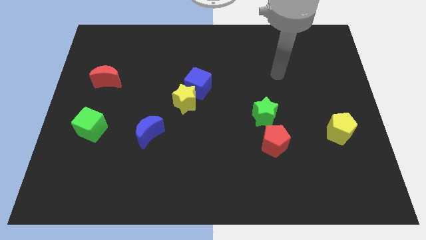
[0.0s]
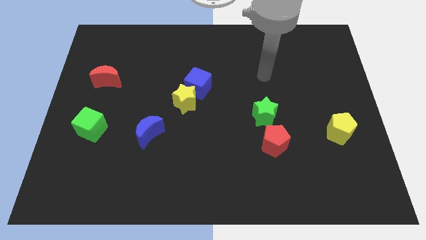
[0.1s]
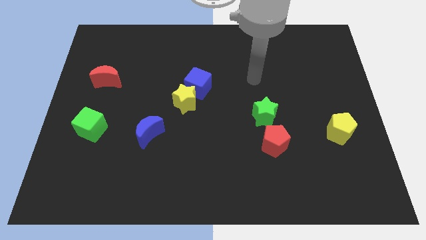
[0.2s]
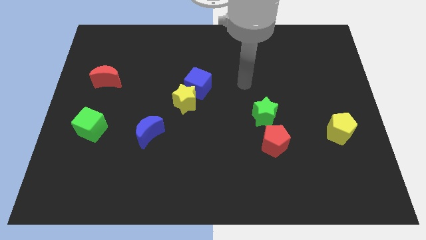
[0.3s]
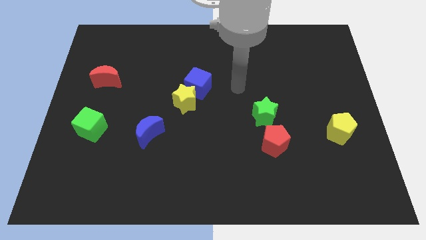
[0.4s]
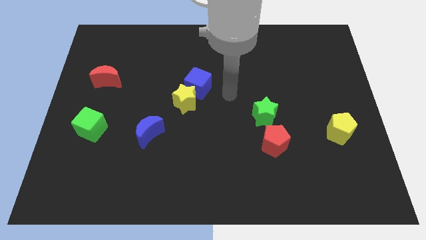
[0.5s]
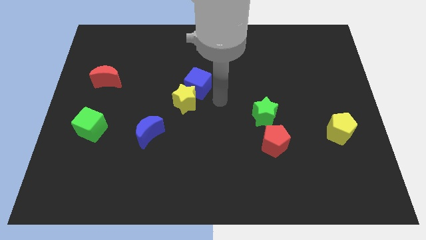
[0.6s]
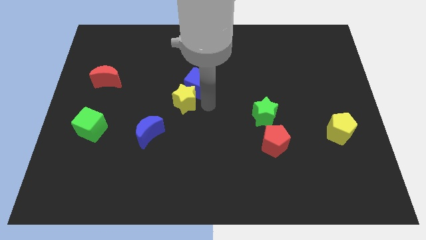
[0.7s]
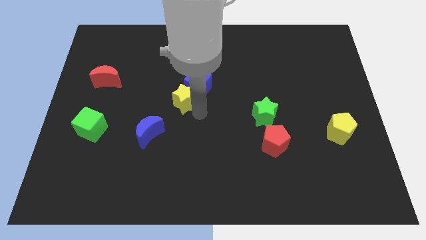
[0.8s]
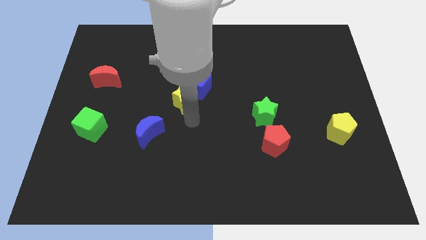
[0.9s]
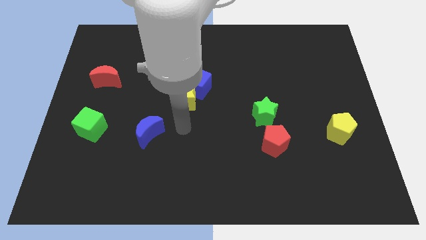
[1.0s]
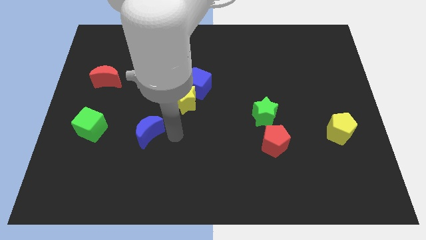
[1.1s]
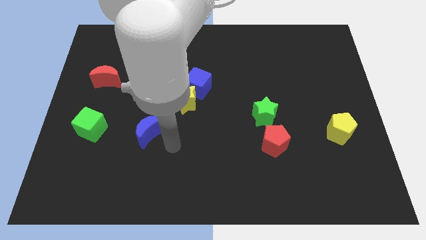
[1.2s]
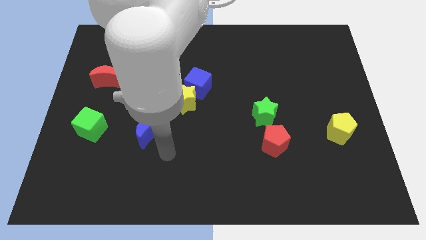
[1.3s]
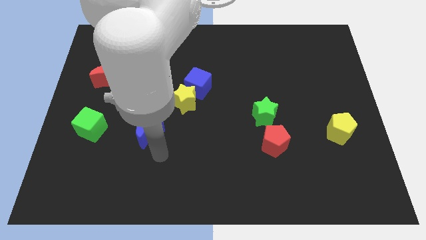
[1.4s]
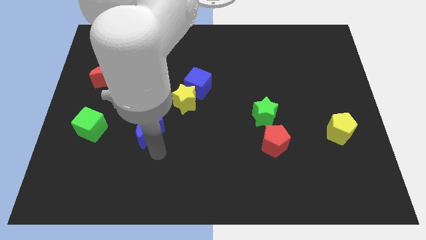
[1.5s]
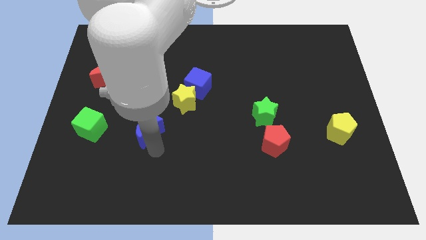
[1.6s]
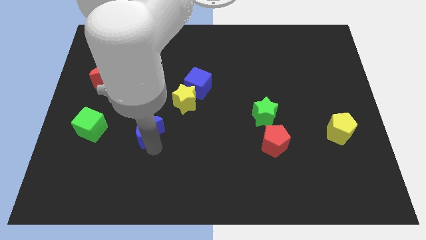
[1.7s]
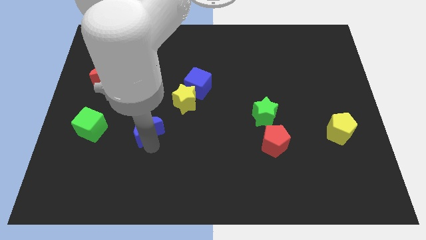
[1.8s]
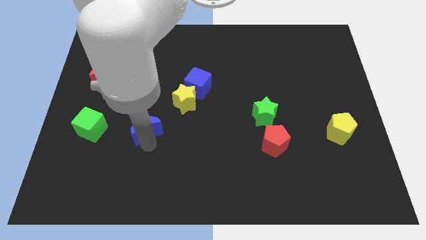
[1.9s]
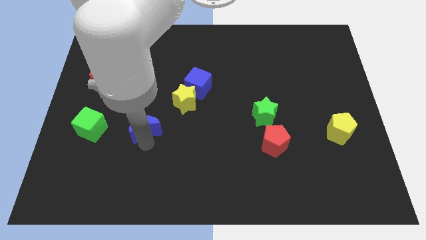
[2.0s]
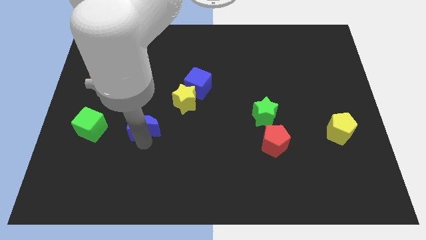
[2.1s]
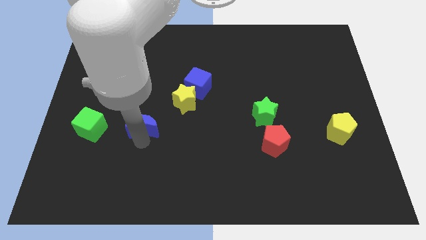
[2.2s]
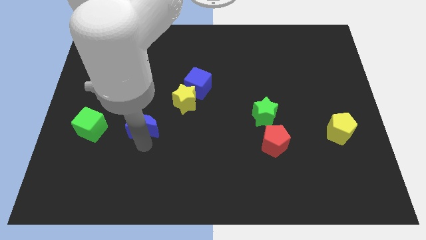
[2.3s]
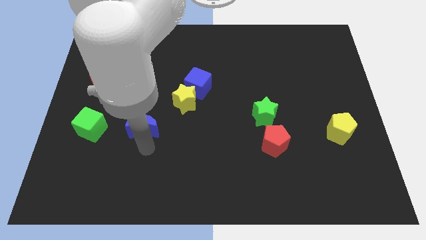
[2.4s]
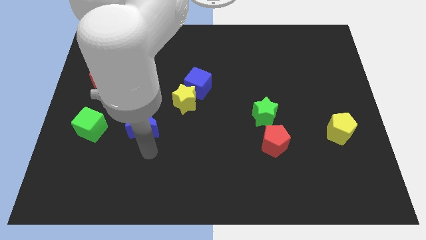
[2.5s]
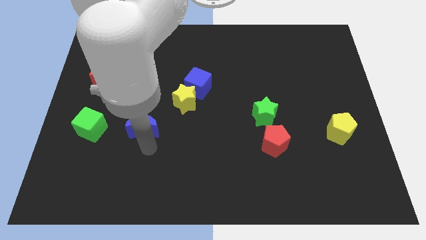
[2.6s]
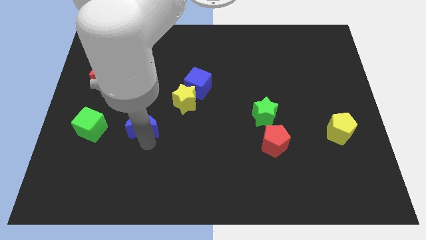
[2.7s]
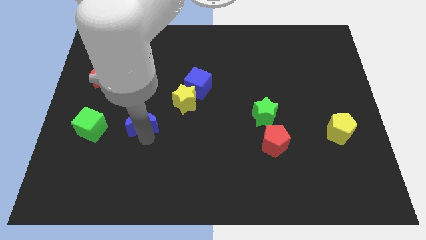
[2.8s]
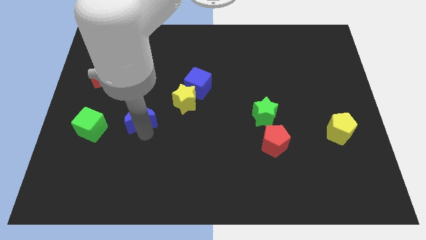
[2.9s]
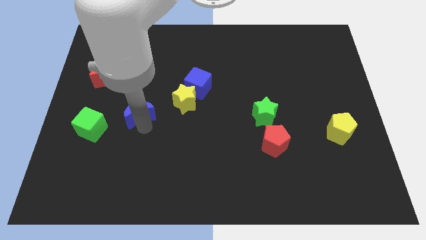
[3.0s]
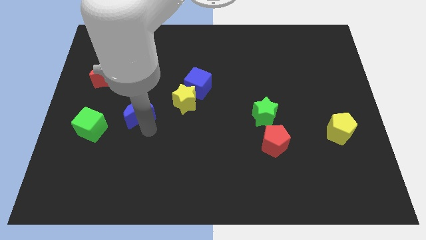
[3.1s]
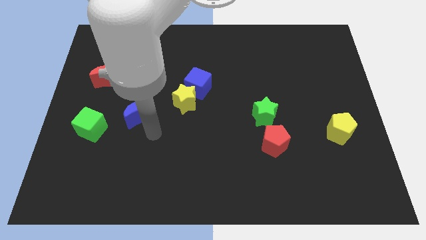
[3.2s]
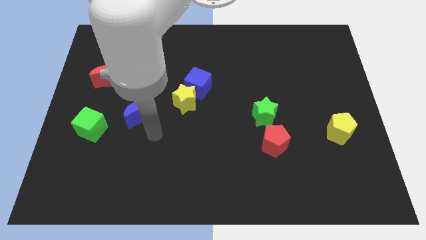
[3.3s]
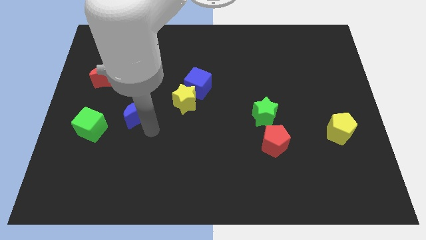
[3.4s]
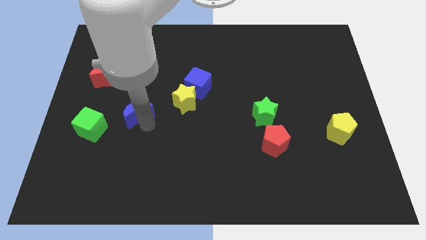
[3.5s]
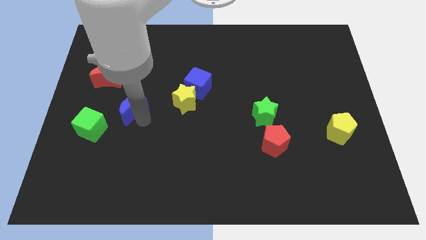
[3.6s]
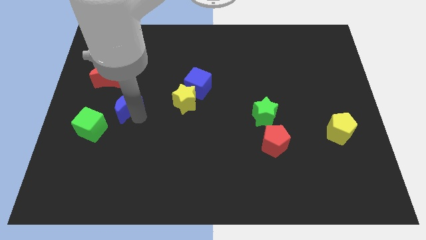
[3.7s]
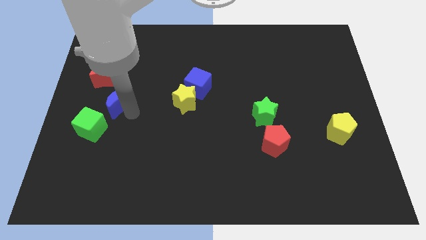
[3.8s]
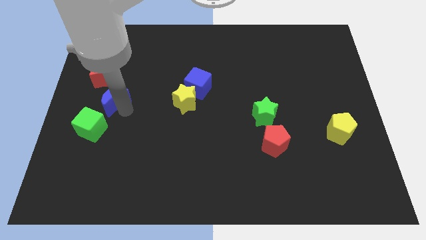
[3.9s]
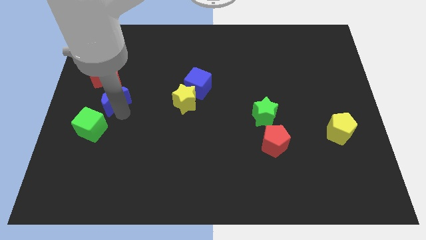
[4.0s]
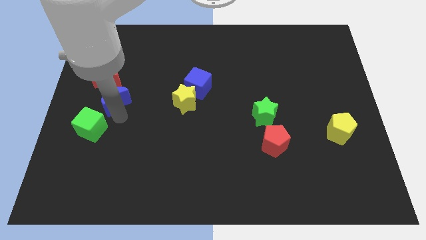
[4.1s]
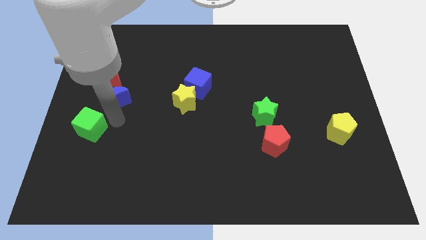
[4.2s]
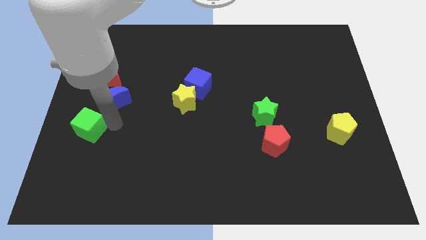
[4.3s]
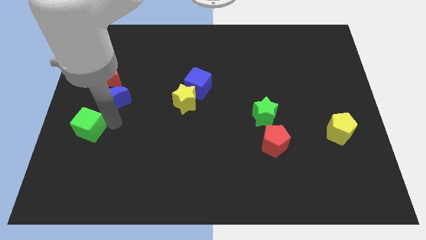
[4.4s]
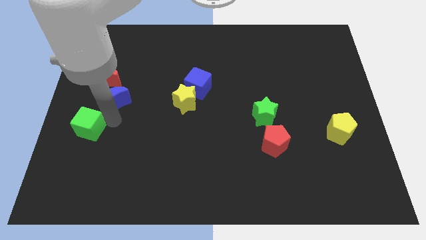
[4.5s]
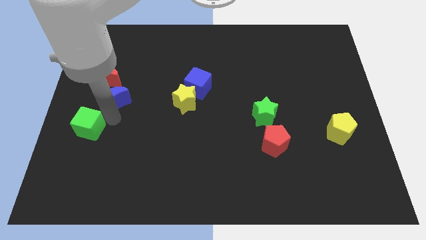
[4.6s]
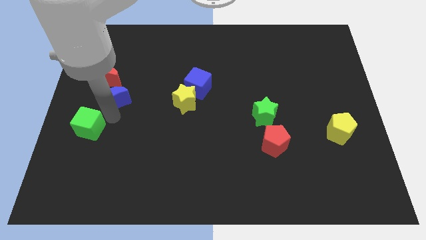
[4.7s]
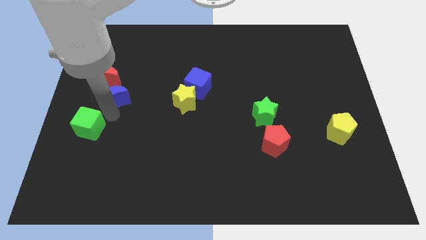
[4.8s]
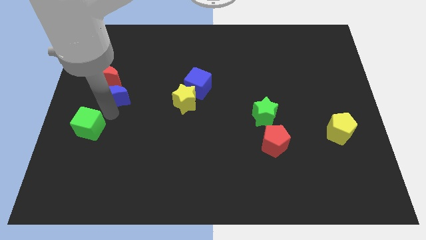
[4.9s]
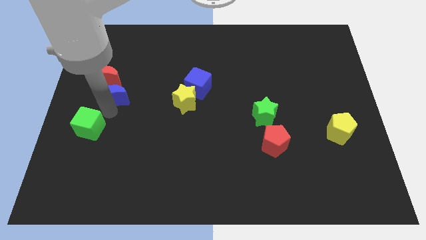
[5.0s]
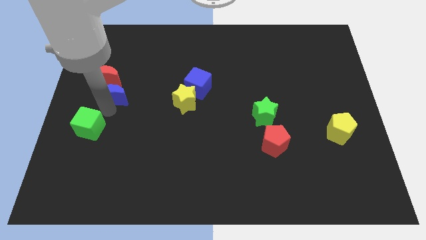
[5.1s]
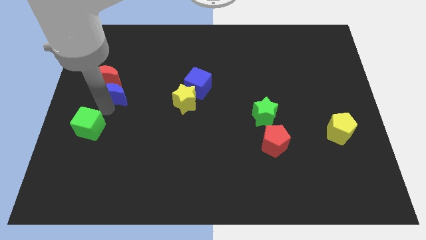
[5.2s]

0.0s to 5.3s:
move the blue moon to the red moon

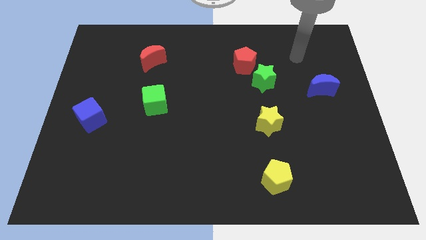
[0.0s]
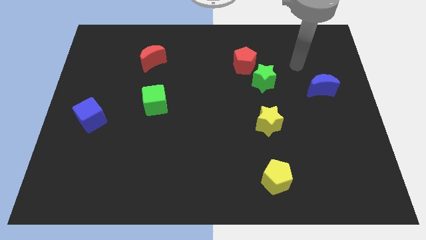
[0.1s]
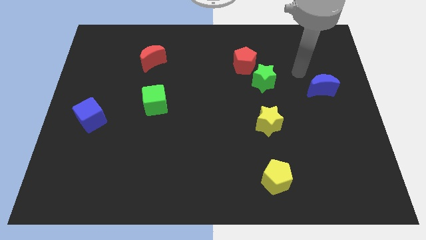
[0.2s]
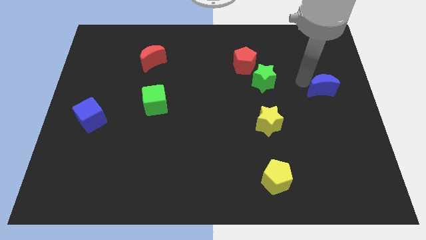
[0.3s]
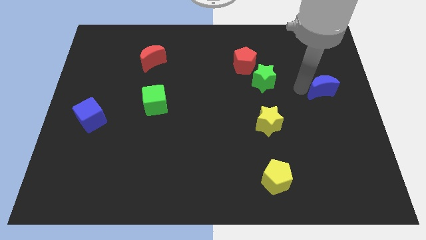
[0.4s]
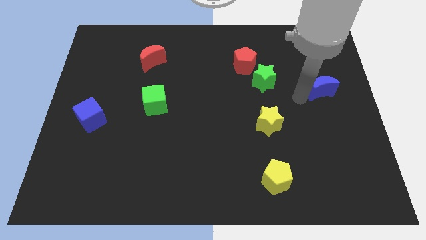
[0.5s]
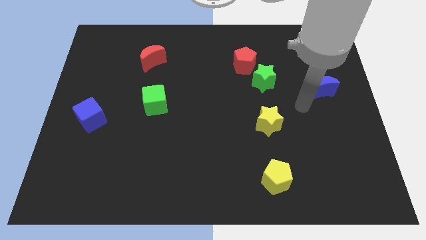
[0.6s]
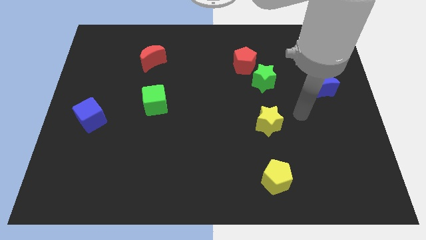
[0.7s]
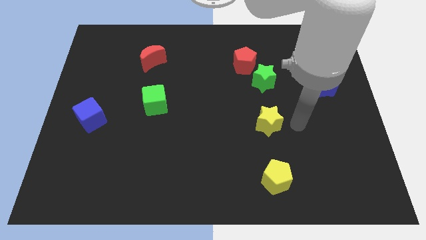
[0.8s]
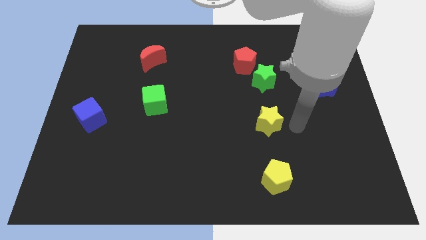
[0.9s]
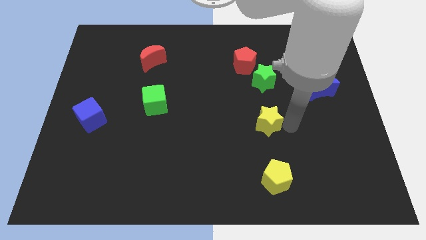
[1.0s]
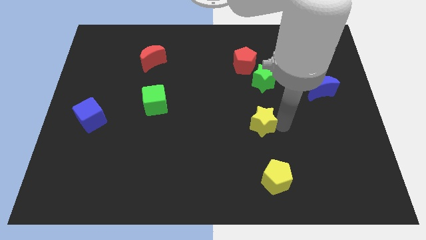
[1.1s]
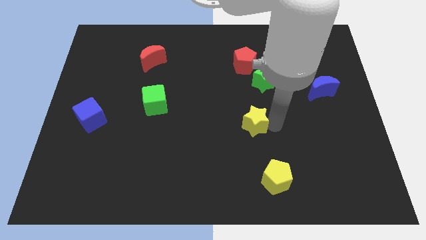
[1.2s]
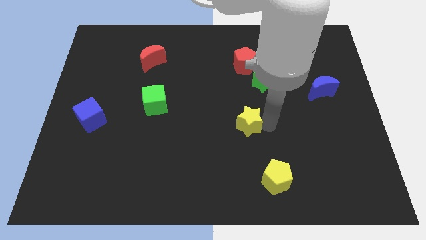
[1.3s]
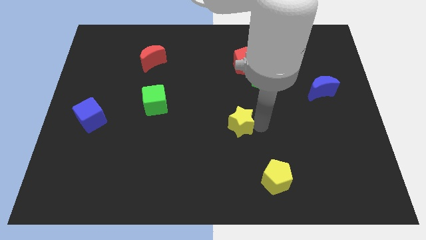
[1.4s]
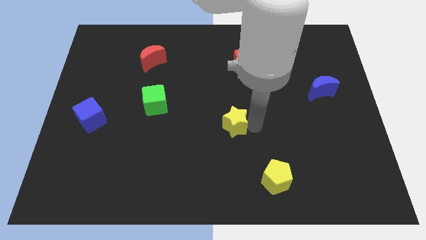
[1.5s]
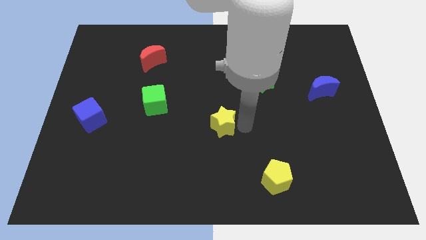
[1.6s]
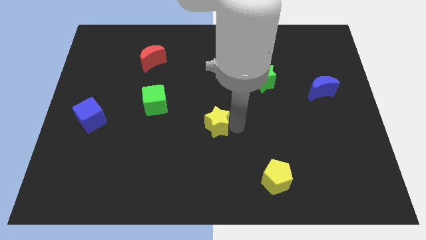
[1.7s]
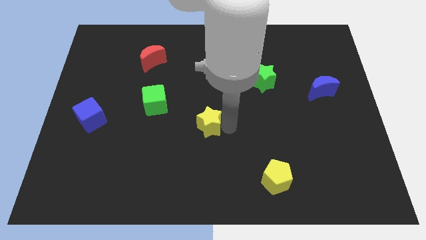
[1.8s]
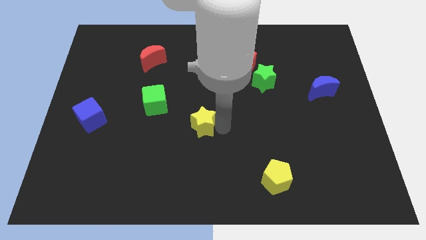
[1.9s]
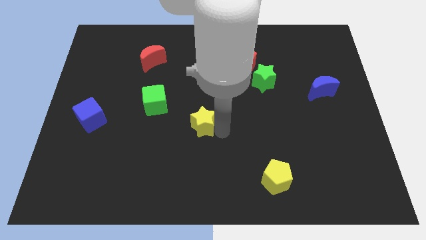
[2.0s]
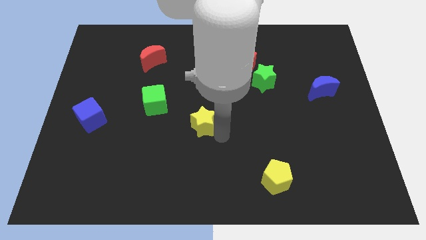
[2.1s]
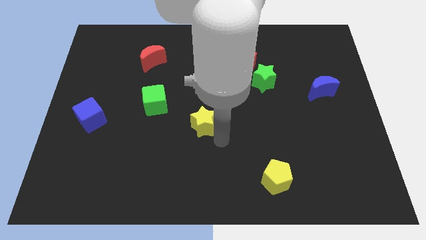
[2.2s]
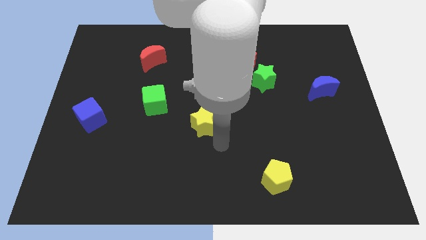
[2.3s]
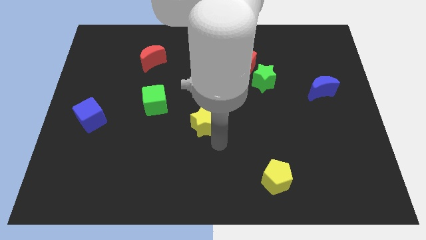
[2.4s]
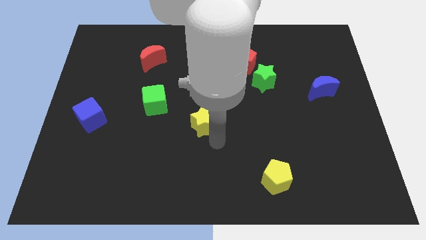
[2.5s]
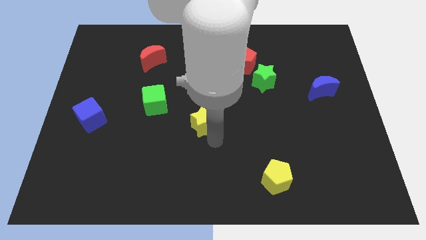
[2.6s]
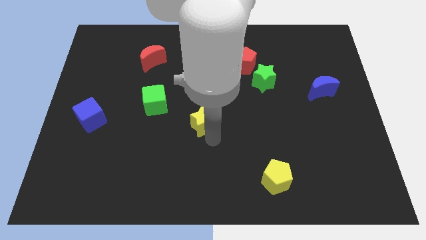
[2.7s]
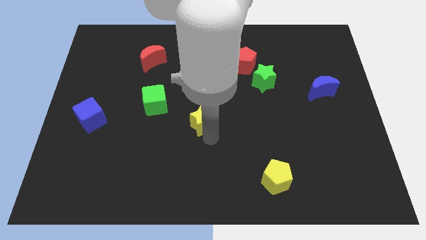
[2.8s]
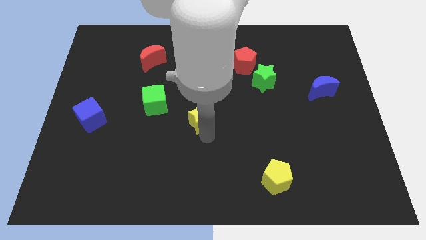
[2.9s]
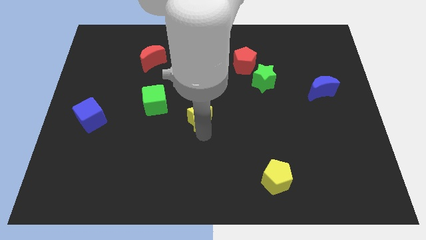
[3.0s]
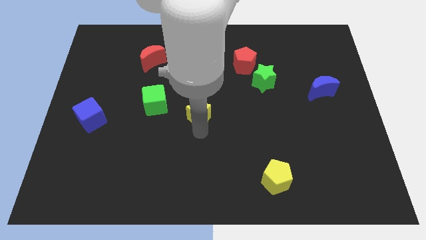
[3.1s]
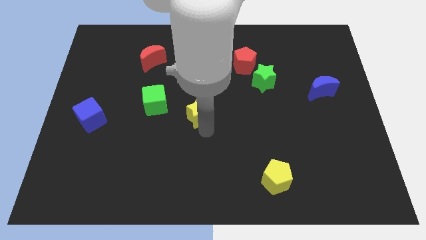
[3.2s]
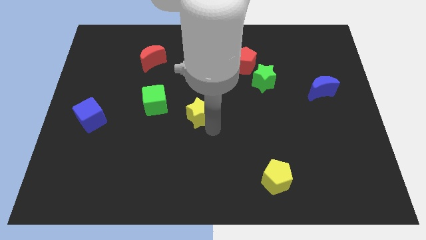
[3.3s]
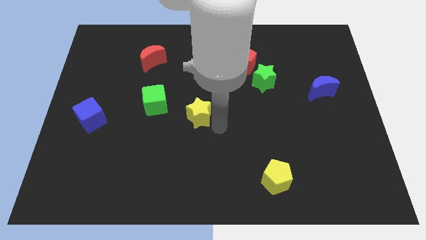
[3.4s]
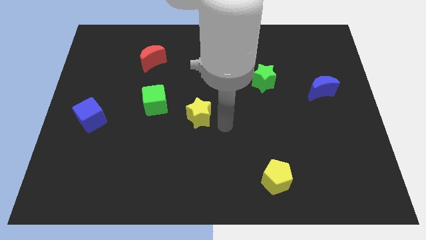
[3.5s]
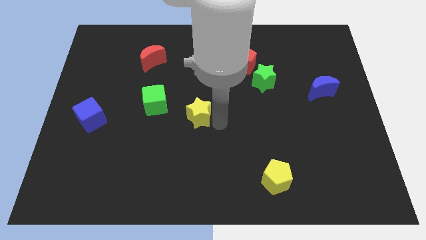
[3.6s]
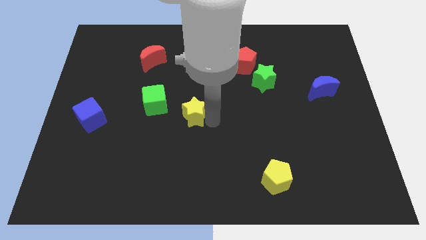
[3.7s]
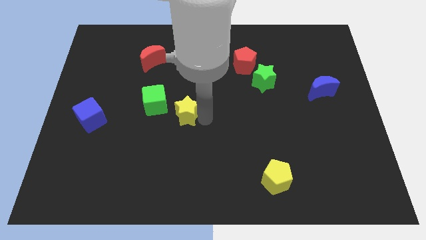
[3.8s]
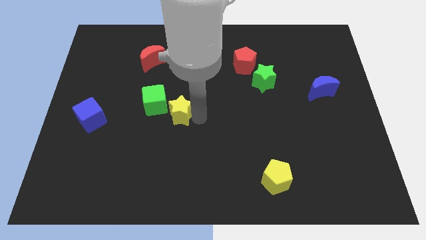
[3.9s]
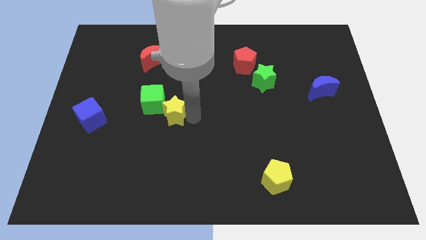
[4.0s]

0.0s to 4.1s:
put the yellow star next to the green cube
